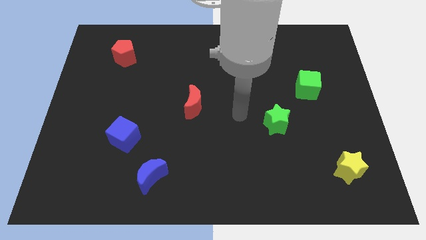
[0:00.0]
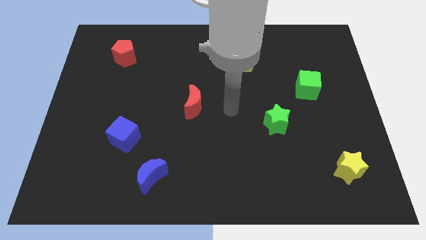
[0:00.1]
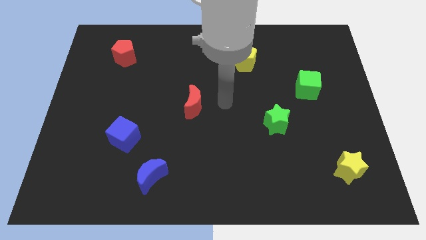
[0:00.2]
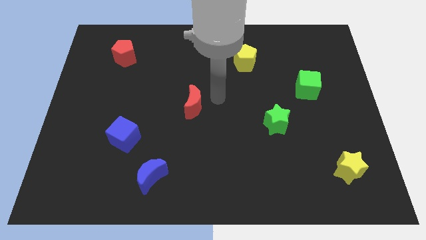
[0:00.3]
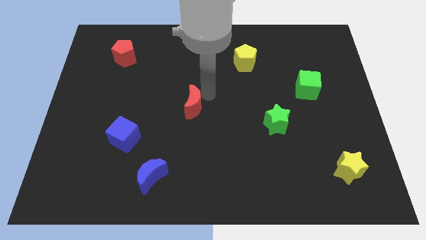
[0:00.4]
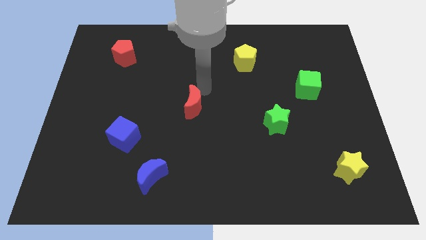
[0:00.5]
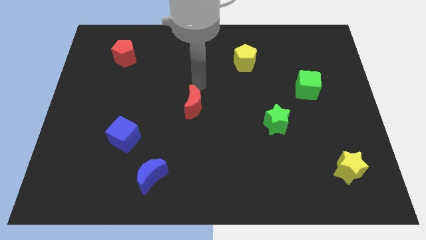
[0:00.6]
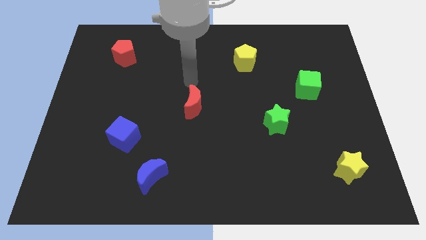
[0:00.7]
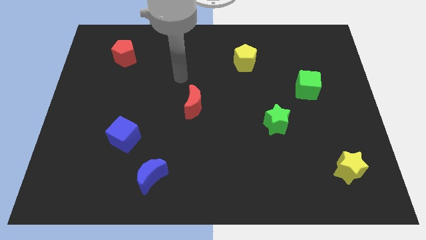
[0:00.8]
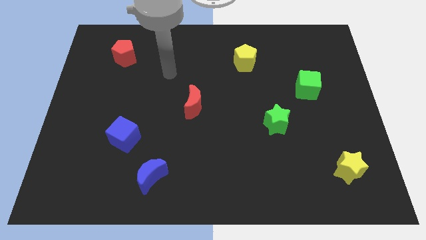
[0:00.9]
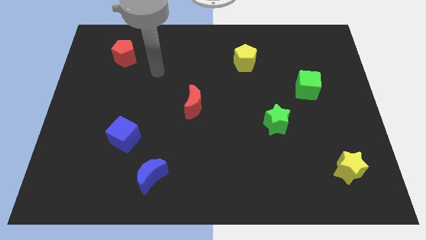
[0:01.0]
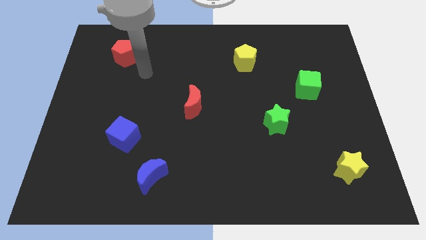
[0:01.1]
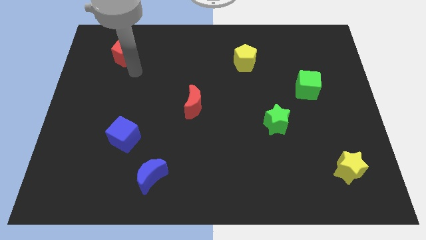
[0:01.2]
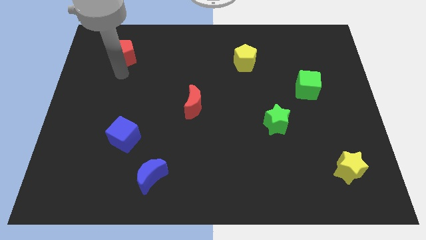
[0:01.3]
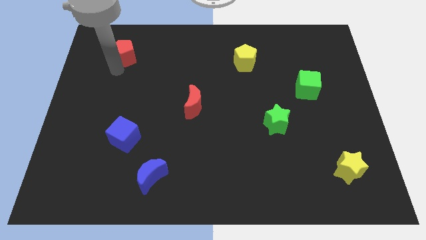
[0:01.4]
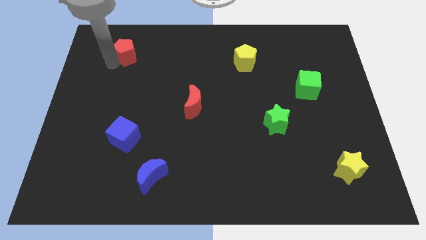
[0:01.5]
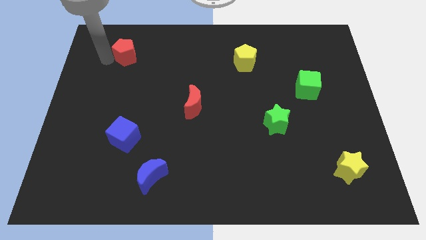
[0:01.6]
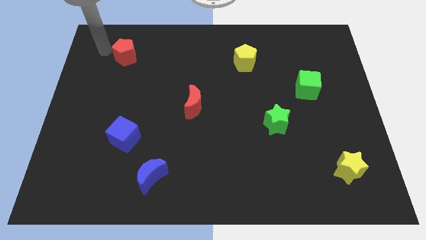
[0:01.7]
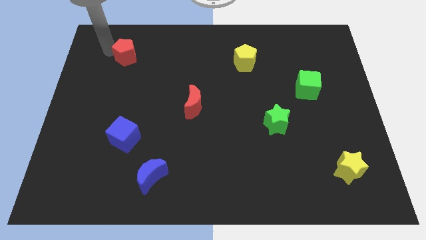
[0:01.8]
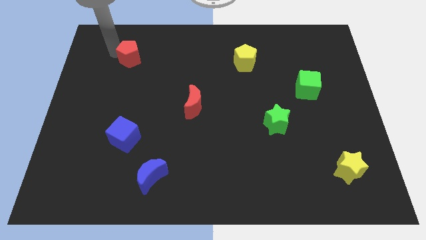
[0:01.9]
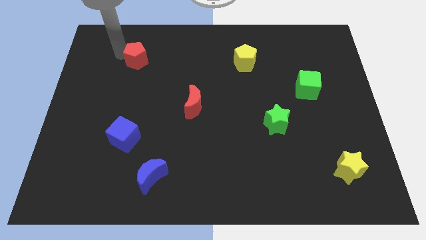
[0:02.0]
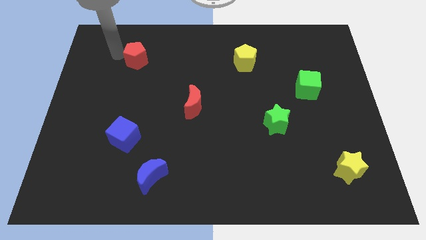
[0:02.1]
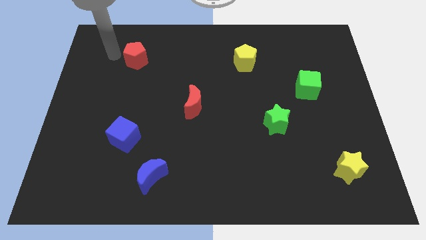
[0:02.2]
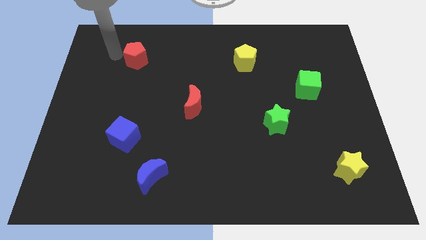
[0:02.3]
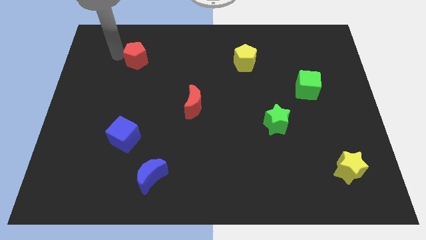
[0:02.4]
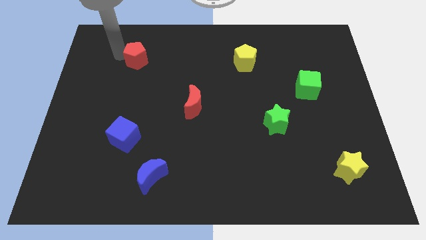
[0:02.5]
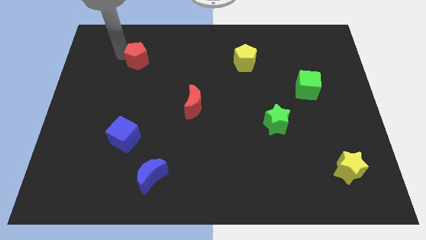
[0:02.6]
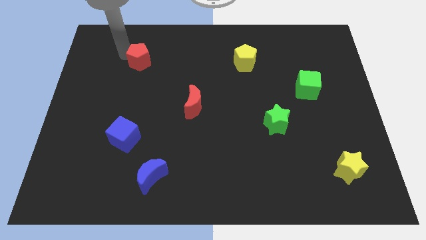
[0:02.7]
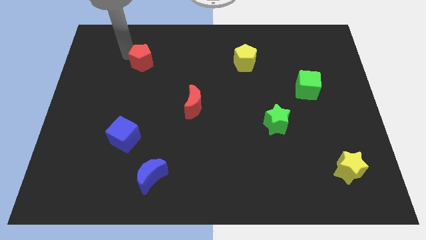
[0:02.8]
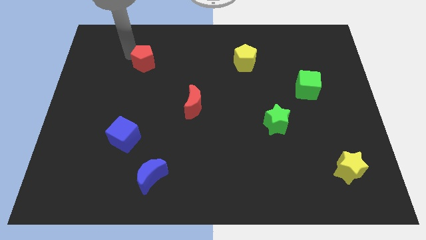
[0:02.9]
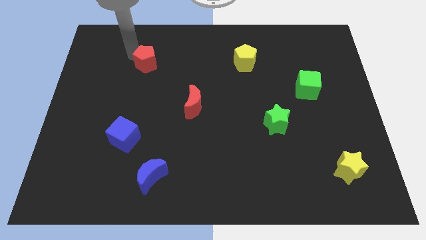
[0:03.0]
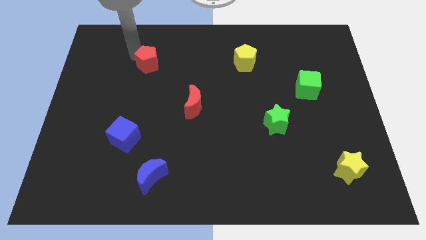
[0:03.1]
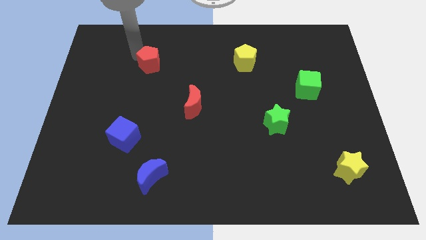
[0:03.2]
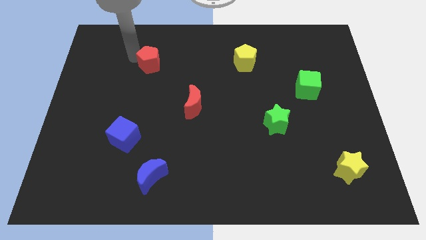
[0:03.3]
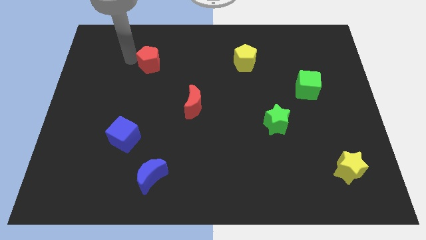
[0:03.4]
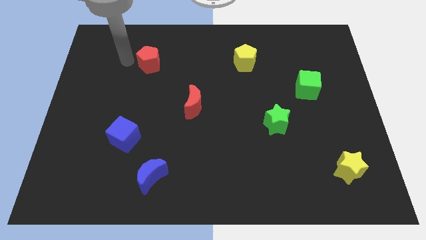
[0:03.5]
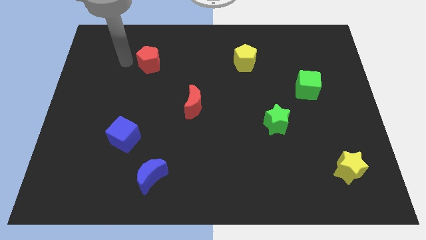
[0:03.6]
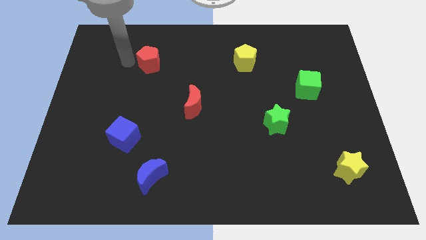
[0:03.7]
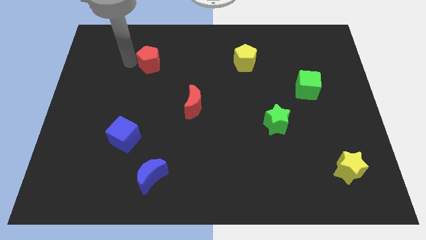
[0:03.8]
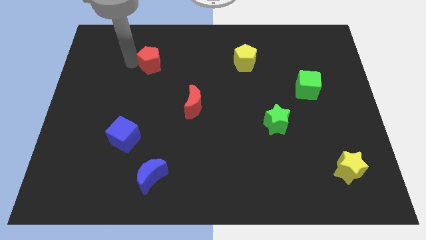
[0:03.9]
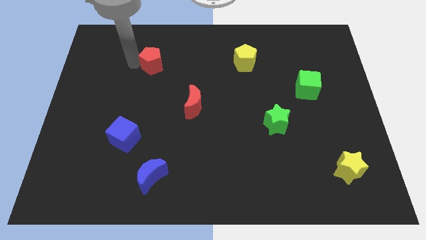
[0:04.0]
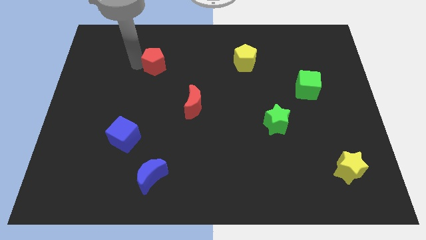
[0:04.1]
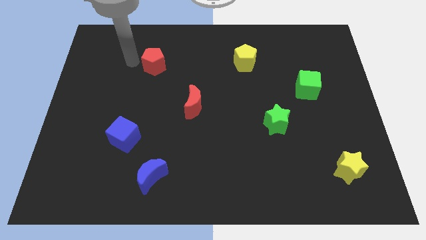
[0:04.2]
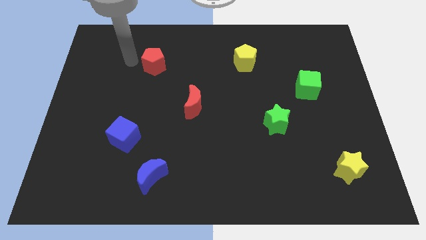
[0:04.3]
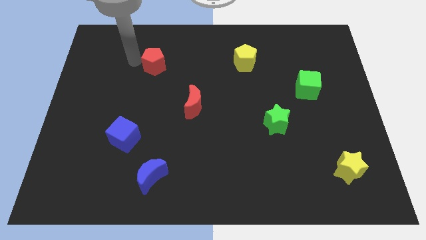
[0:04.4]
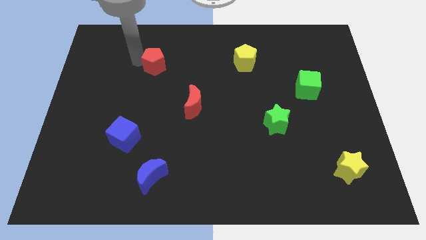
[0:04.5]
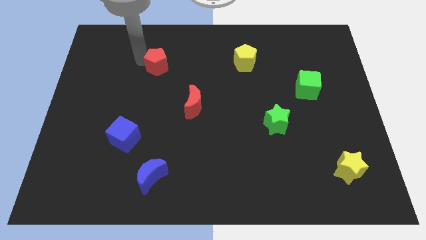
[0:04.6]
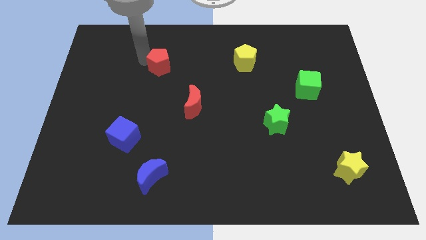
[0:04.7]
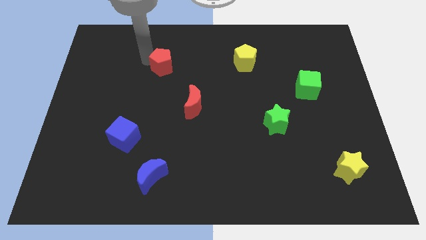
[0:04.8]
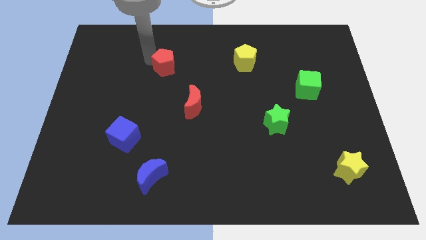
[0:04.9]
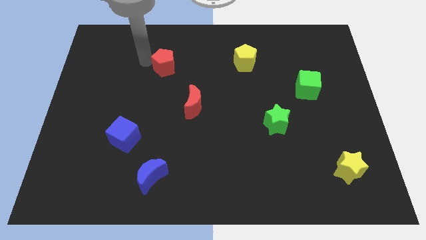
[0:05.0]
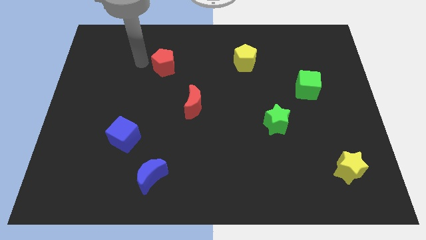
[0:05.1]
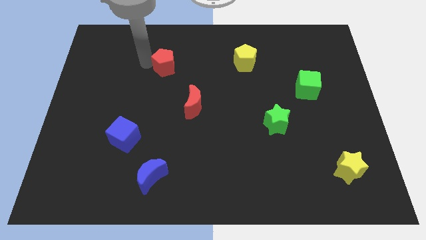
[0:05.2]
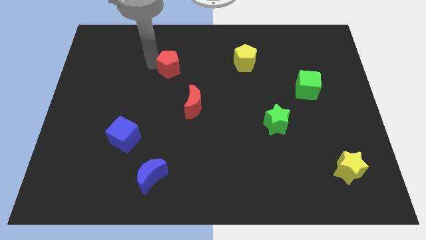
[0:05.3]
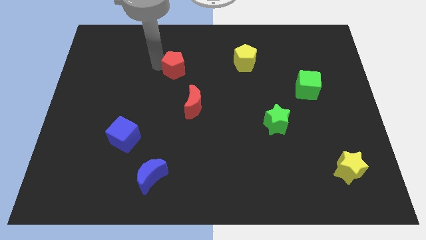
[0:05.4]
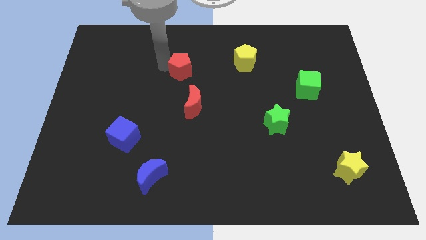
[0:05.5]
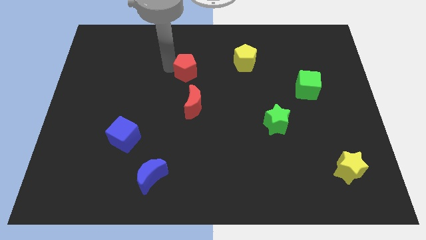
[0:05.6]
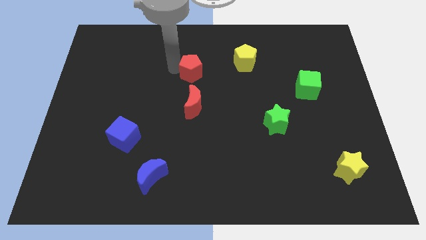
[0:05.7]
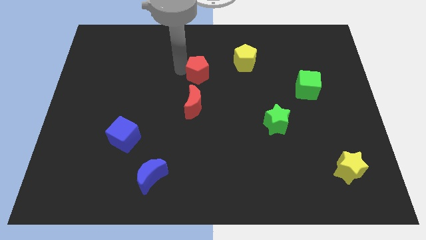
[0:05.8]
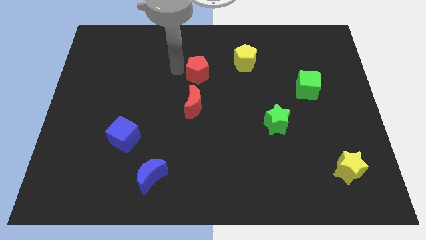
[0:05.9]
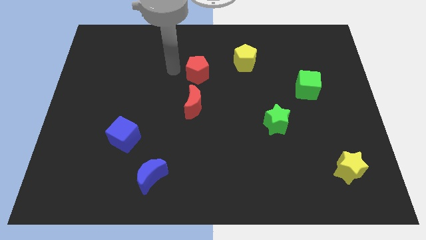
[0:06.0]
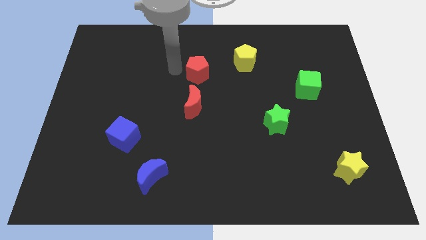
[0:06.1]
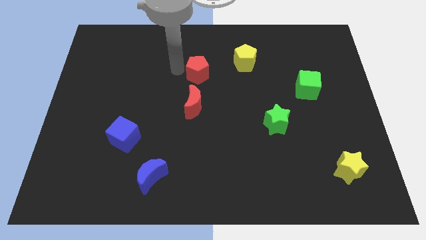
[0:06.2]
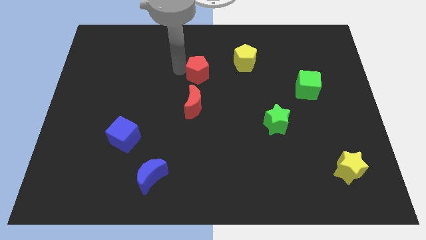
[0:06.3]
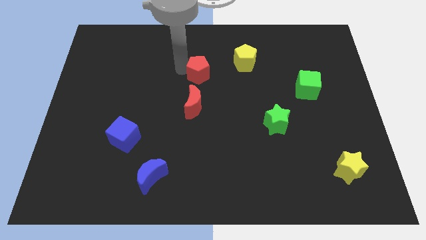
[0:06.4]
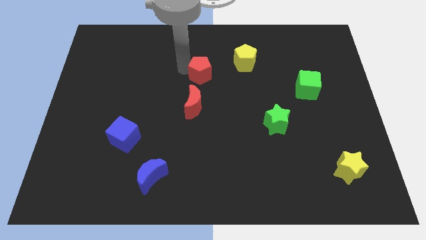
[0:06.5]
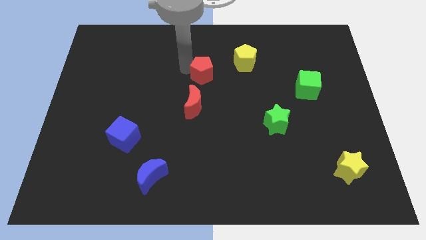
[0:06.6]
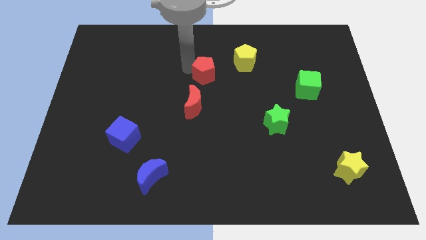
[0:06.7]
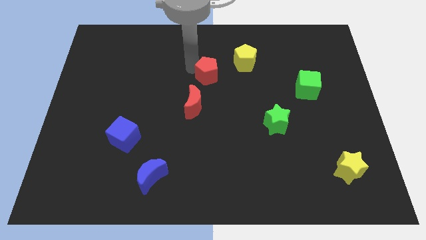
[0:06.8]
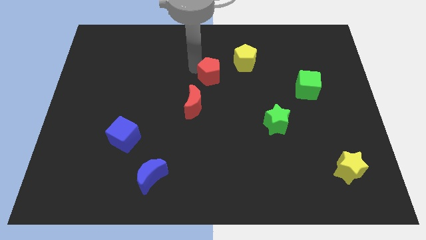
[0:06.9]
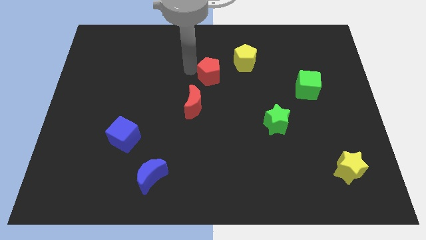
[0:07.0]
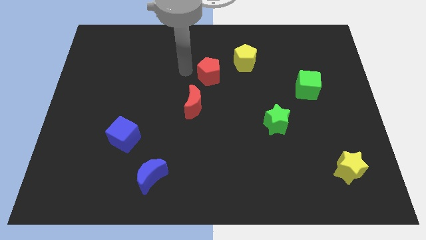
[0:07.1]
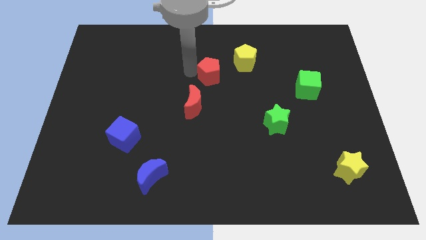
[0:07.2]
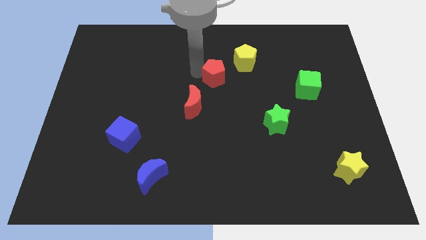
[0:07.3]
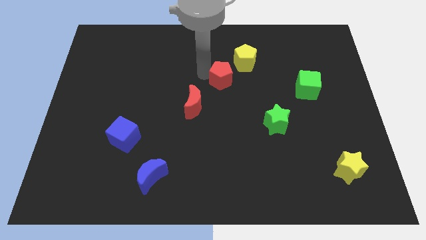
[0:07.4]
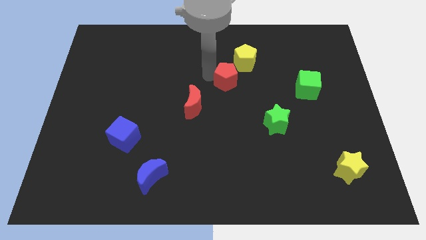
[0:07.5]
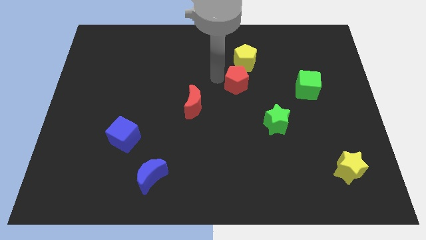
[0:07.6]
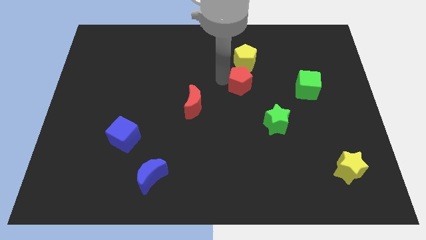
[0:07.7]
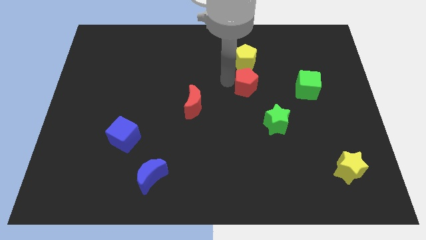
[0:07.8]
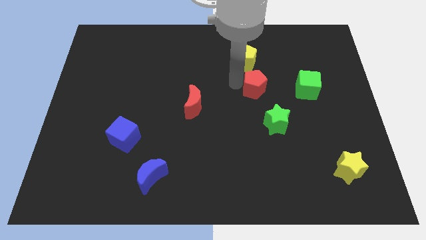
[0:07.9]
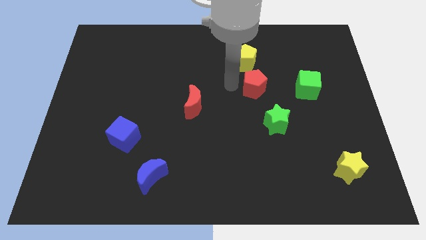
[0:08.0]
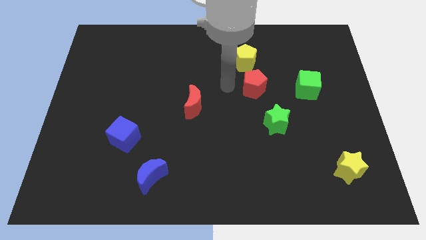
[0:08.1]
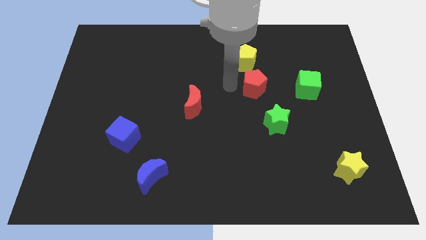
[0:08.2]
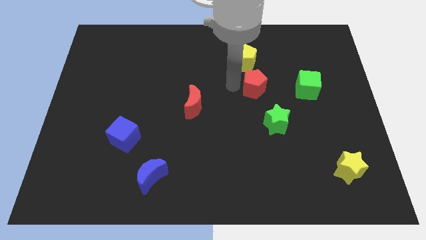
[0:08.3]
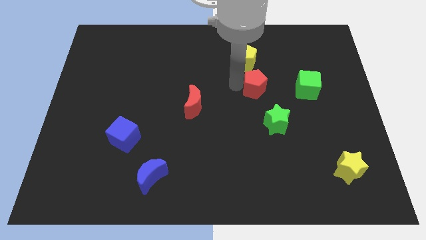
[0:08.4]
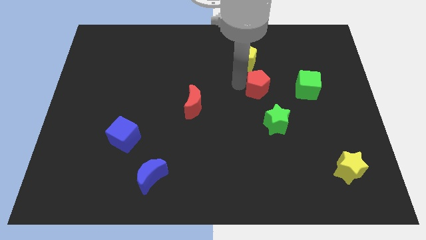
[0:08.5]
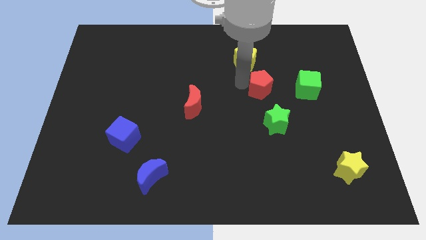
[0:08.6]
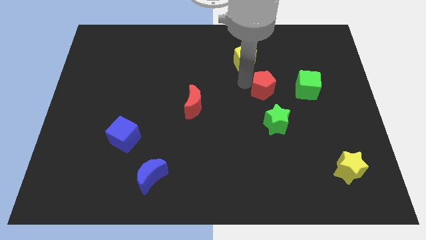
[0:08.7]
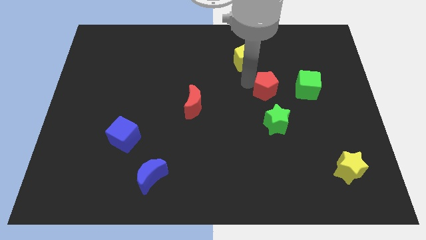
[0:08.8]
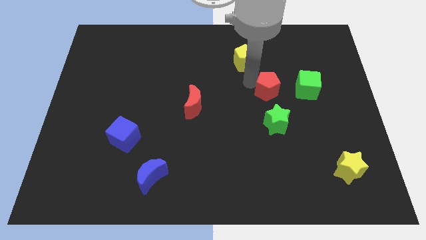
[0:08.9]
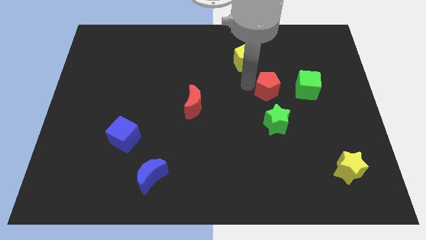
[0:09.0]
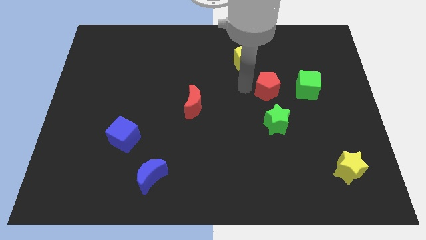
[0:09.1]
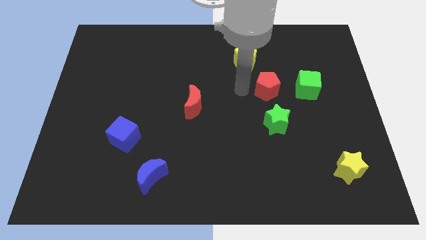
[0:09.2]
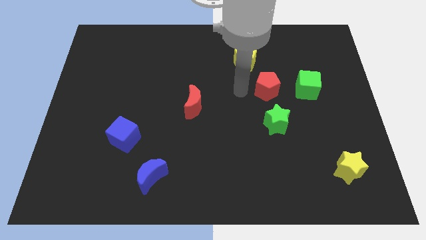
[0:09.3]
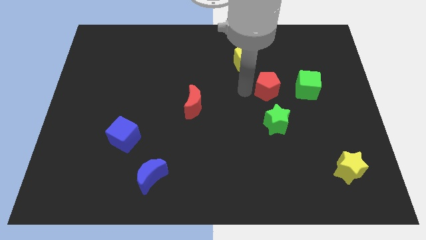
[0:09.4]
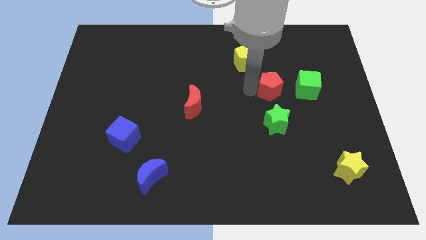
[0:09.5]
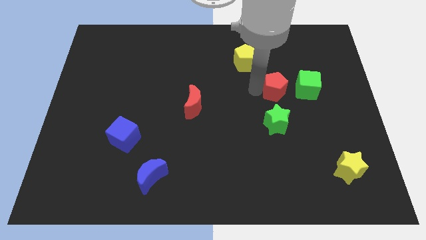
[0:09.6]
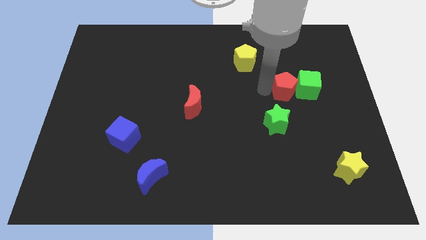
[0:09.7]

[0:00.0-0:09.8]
push the red pentagon to the green cube
